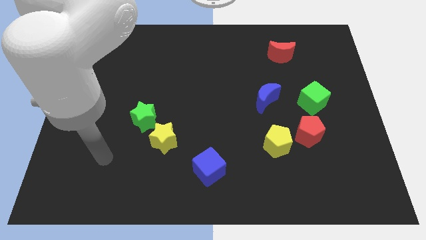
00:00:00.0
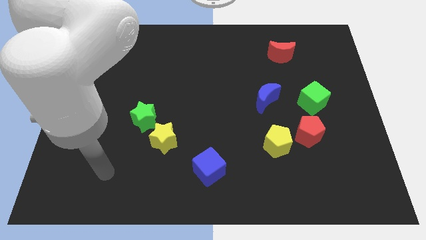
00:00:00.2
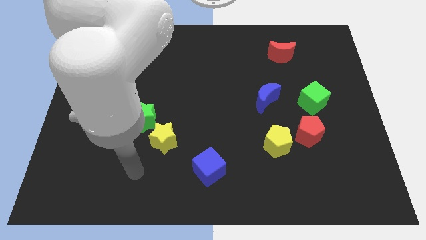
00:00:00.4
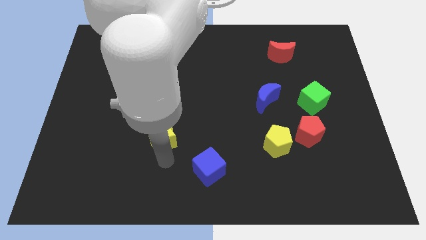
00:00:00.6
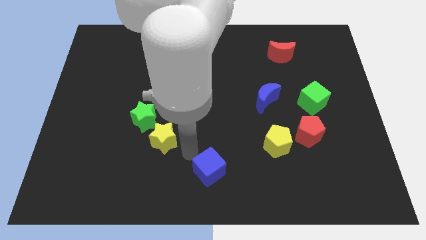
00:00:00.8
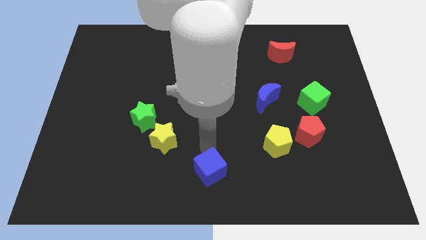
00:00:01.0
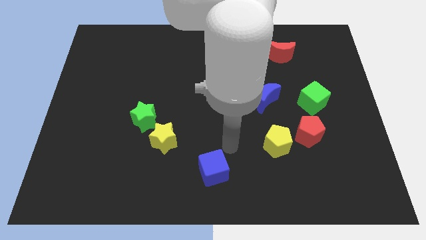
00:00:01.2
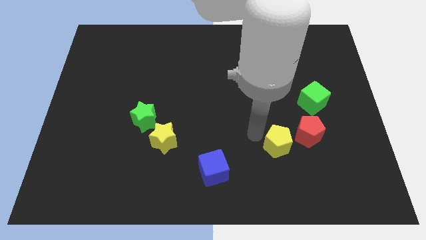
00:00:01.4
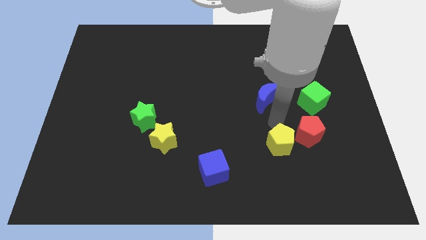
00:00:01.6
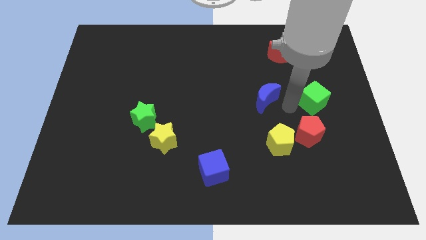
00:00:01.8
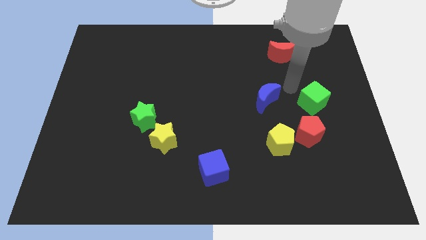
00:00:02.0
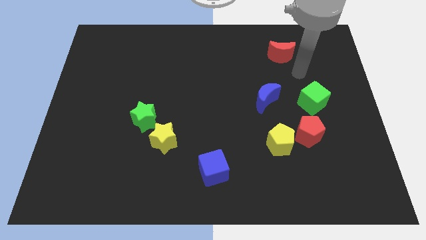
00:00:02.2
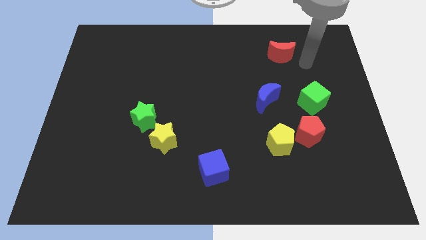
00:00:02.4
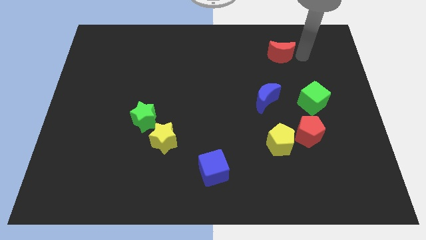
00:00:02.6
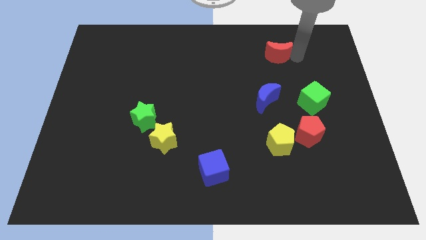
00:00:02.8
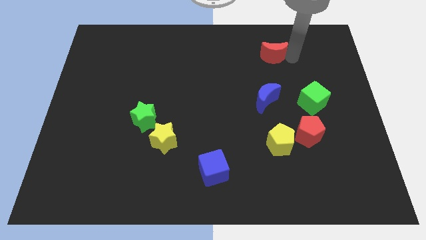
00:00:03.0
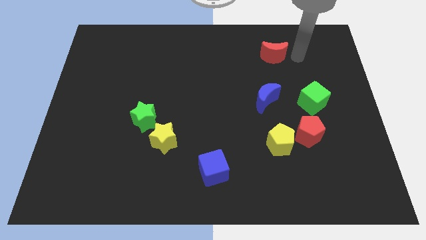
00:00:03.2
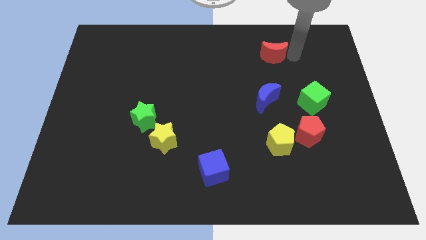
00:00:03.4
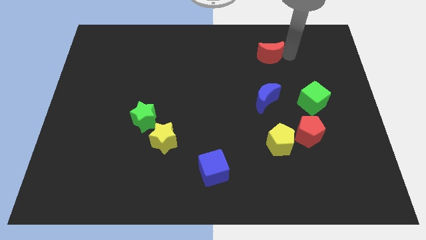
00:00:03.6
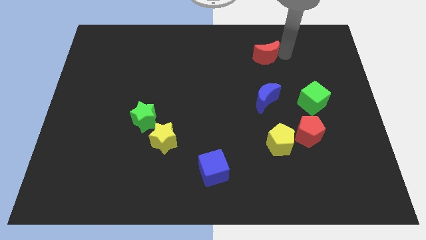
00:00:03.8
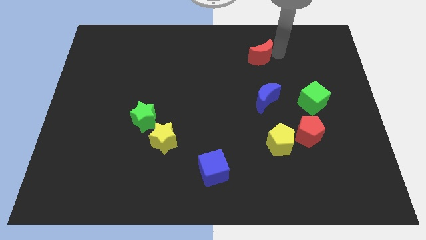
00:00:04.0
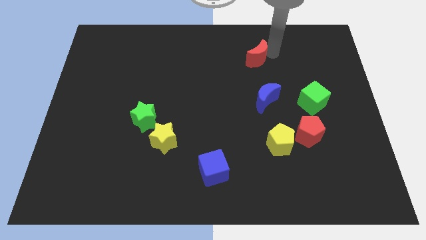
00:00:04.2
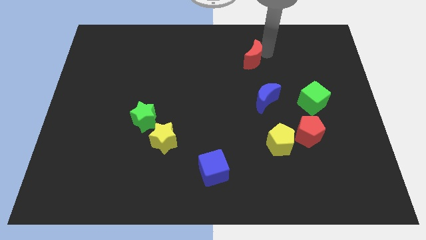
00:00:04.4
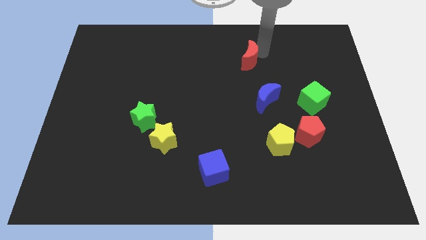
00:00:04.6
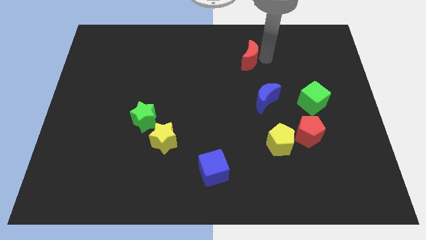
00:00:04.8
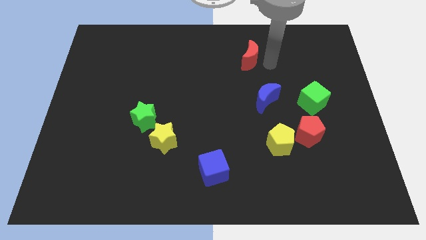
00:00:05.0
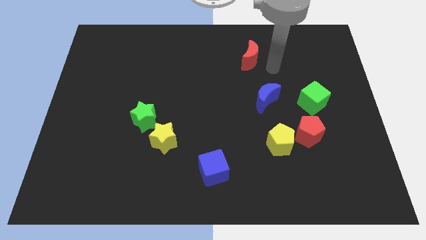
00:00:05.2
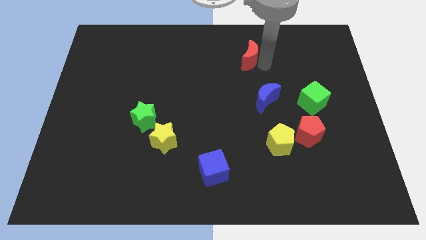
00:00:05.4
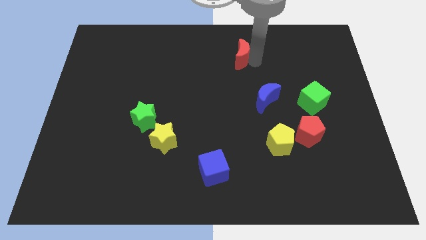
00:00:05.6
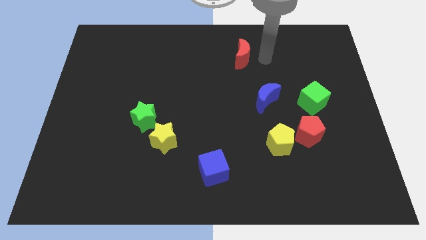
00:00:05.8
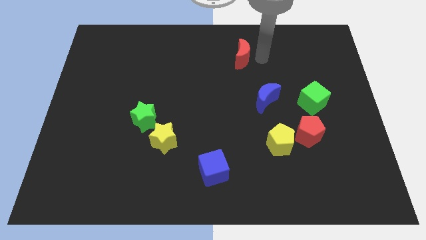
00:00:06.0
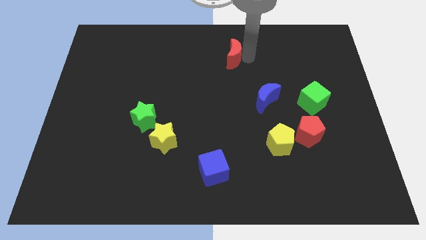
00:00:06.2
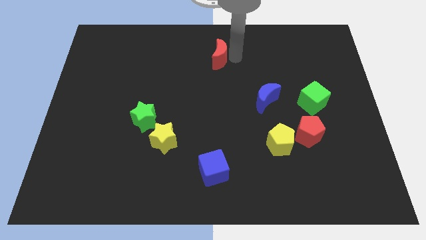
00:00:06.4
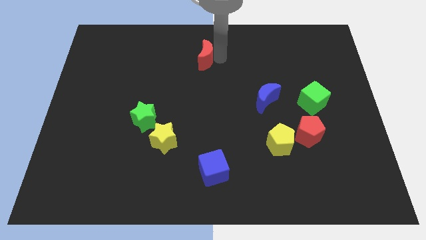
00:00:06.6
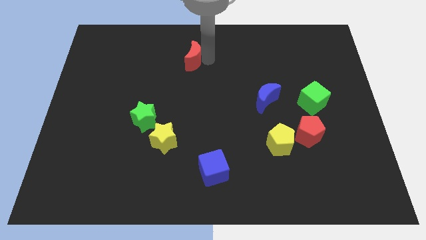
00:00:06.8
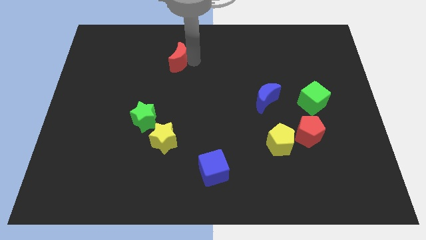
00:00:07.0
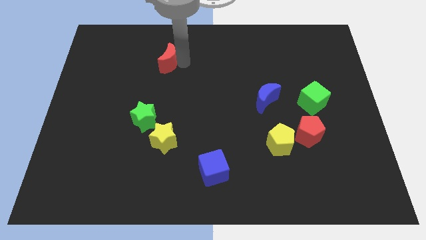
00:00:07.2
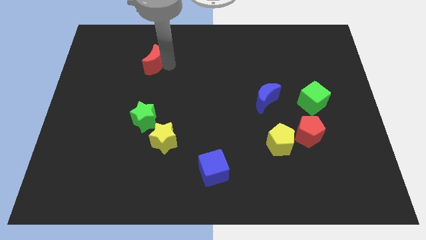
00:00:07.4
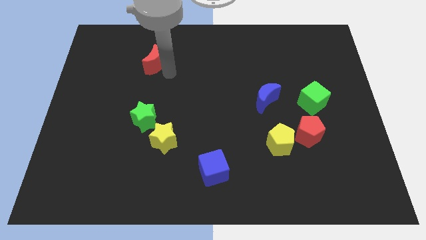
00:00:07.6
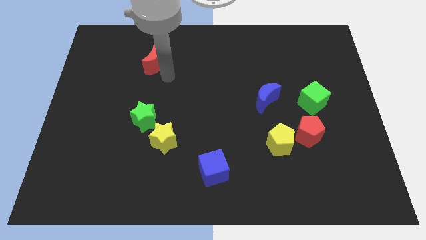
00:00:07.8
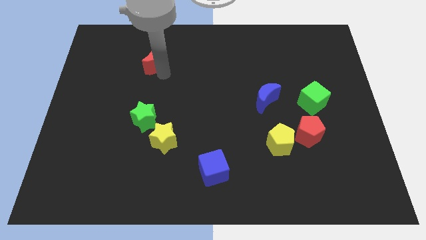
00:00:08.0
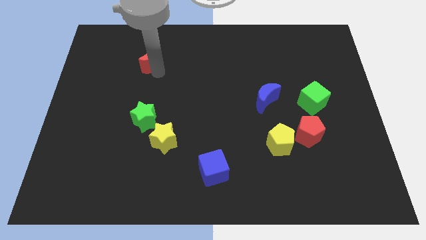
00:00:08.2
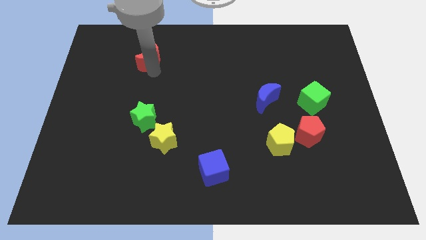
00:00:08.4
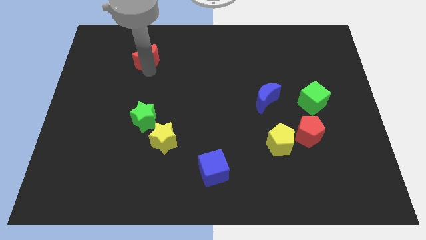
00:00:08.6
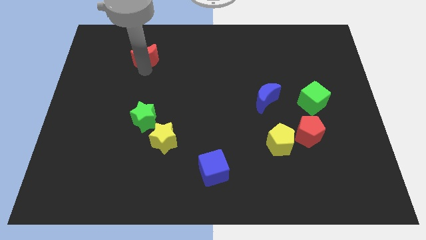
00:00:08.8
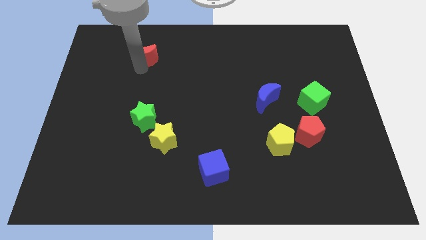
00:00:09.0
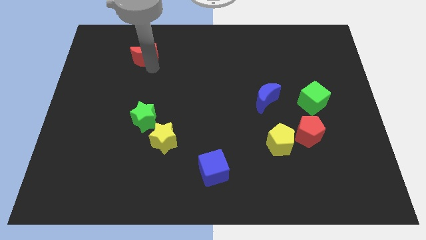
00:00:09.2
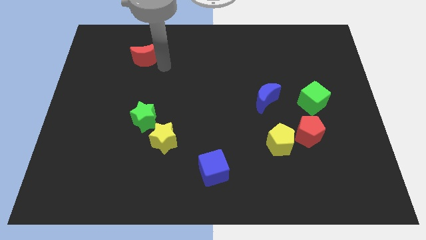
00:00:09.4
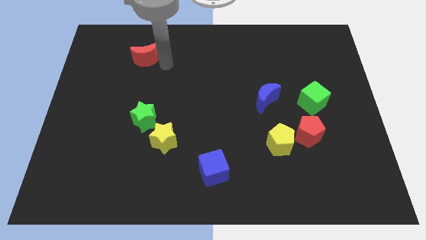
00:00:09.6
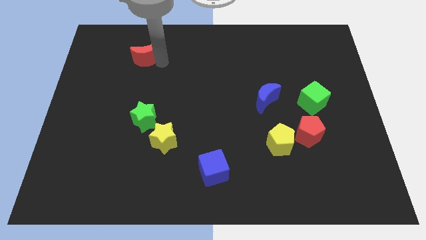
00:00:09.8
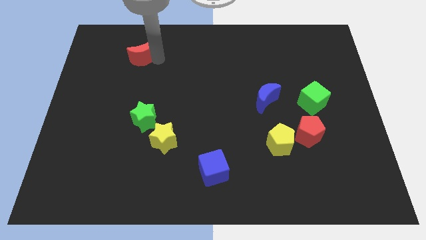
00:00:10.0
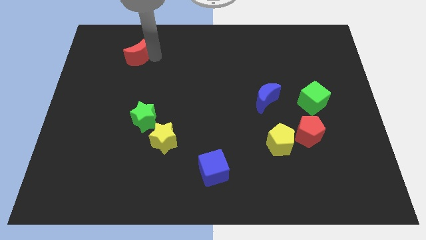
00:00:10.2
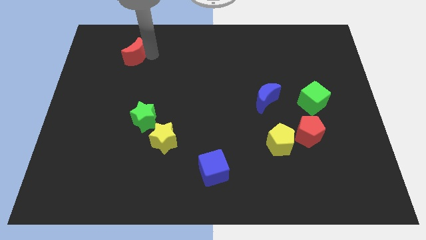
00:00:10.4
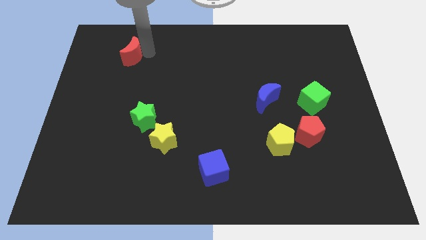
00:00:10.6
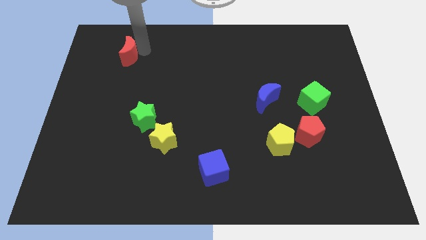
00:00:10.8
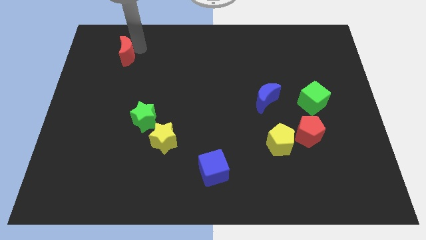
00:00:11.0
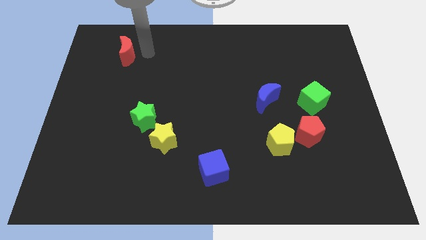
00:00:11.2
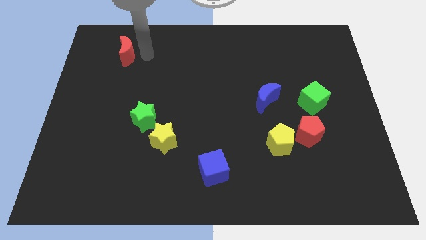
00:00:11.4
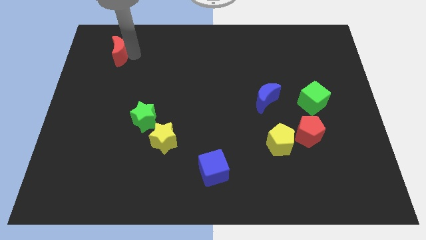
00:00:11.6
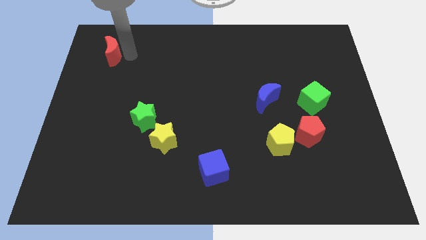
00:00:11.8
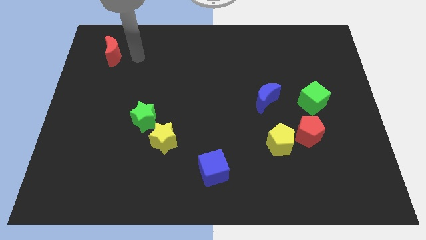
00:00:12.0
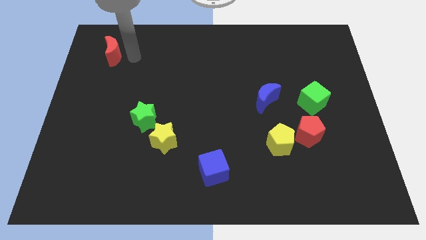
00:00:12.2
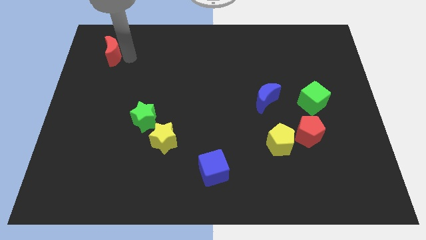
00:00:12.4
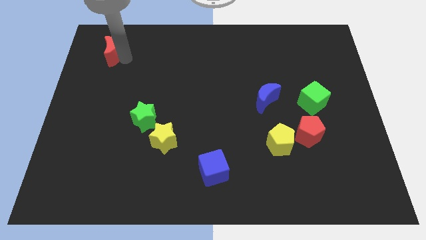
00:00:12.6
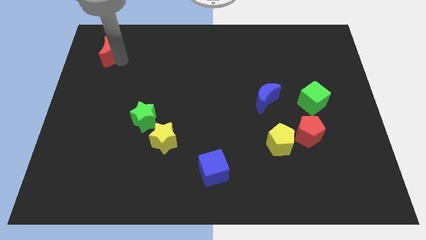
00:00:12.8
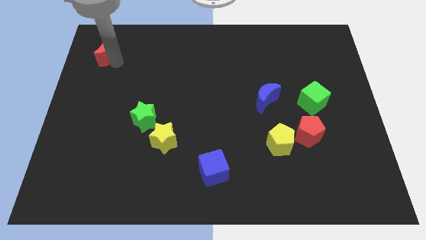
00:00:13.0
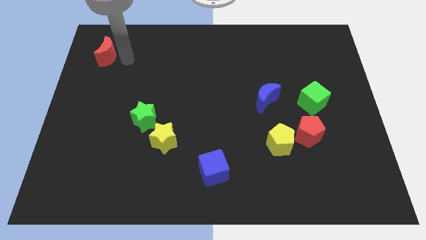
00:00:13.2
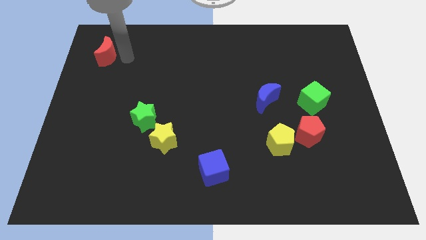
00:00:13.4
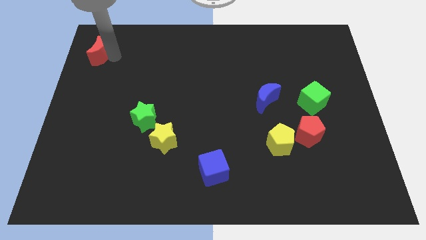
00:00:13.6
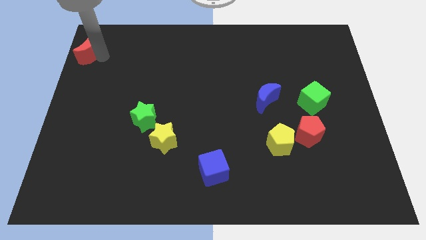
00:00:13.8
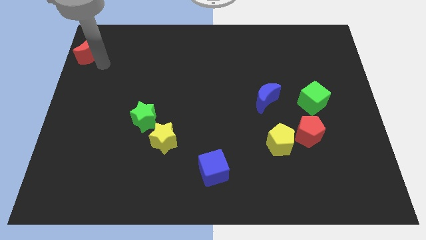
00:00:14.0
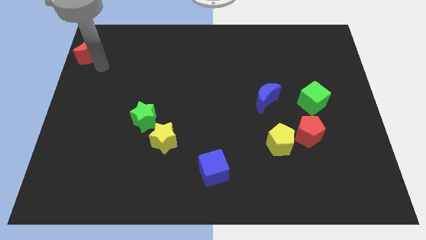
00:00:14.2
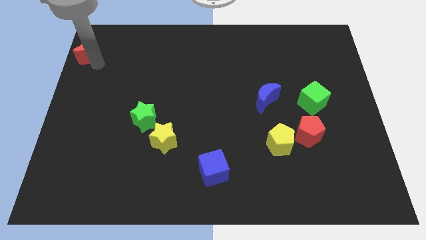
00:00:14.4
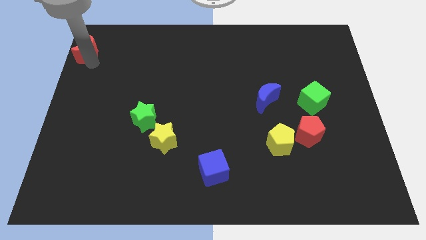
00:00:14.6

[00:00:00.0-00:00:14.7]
slide the red moon to the top left corner
